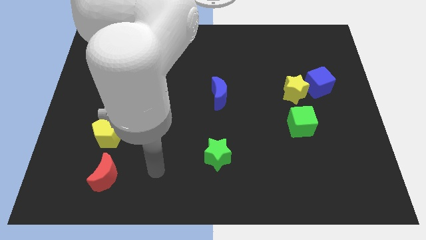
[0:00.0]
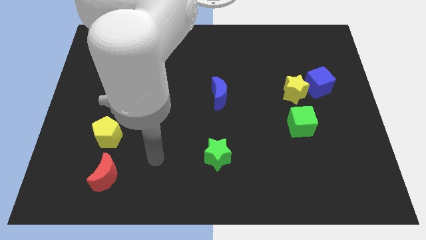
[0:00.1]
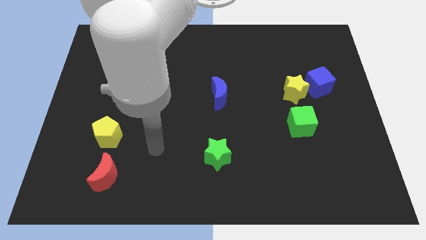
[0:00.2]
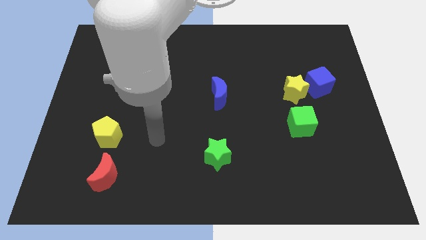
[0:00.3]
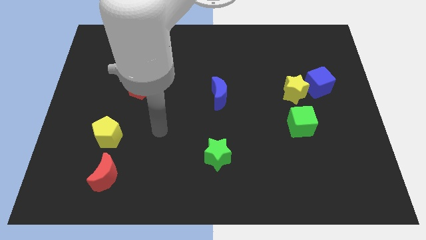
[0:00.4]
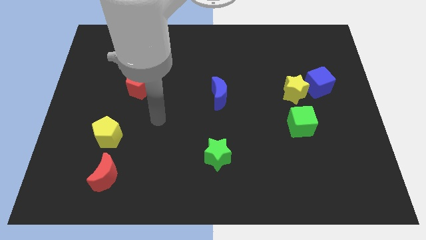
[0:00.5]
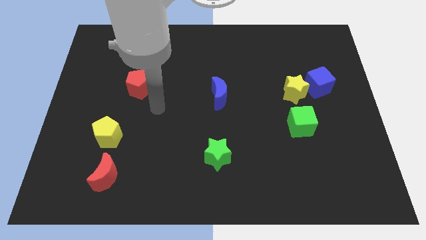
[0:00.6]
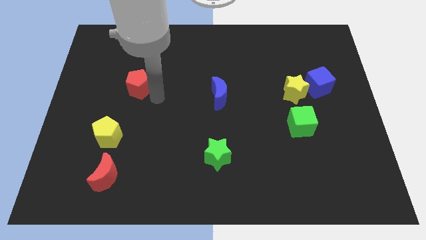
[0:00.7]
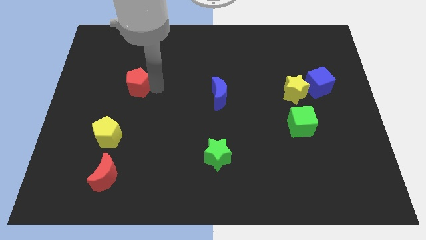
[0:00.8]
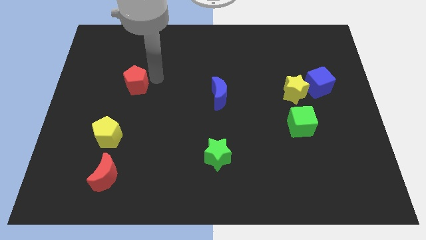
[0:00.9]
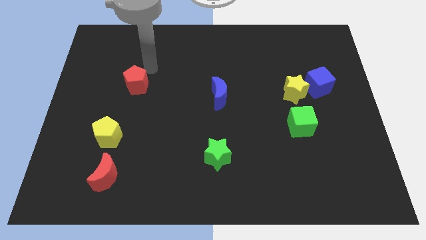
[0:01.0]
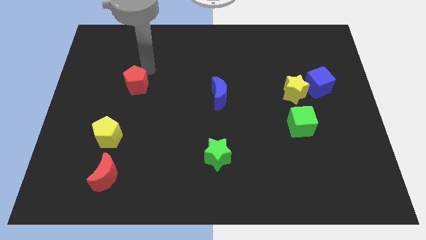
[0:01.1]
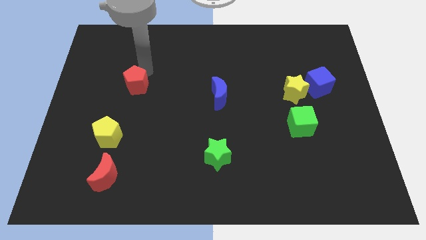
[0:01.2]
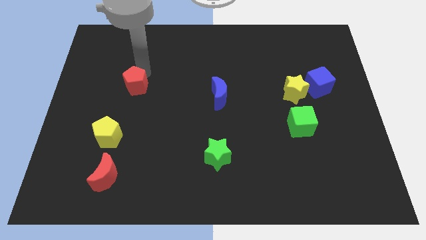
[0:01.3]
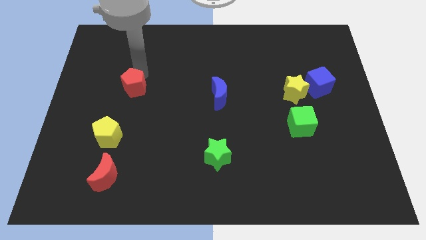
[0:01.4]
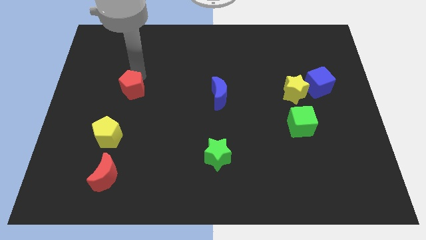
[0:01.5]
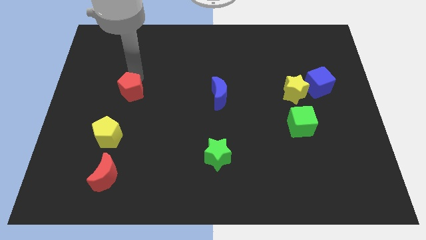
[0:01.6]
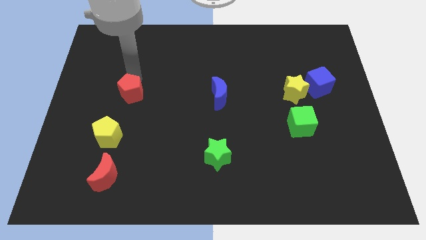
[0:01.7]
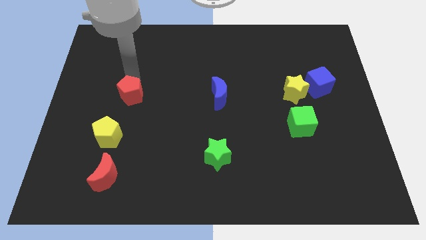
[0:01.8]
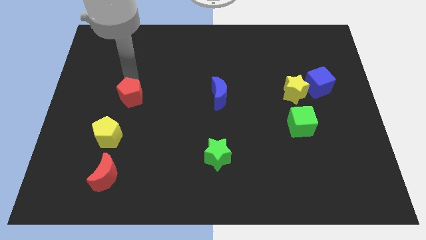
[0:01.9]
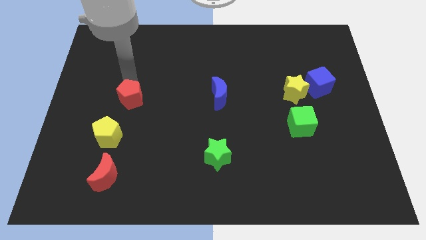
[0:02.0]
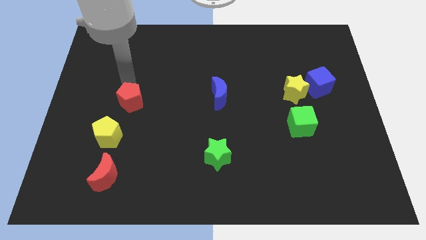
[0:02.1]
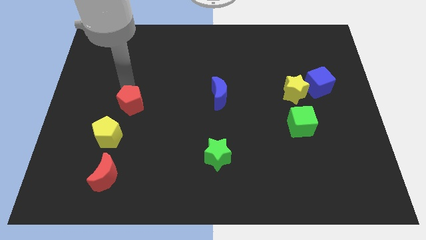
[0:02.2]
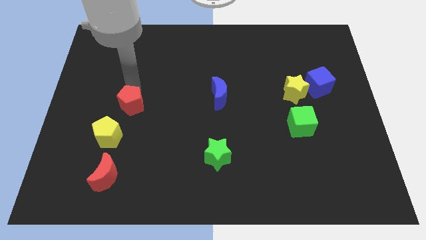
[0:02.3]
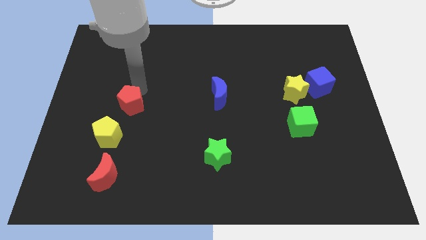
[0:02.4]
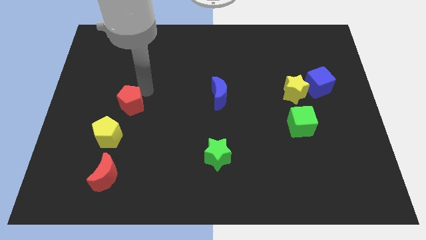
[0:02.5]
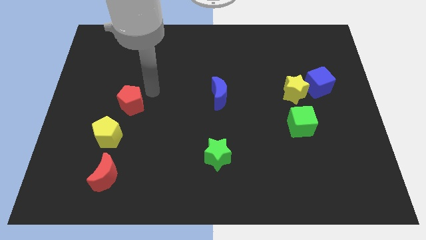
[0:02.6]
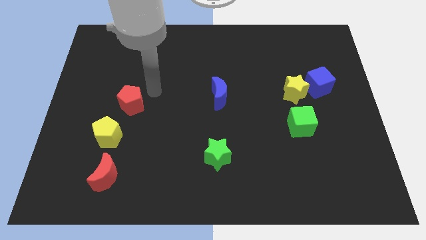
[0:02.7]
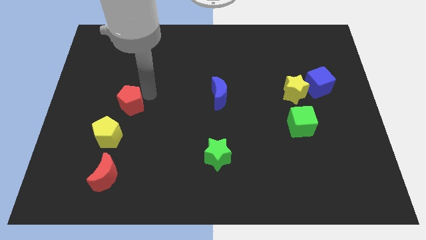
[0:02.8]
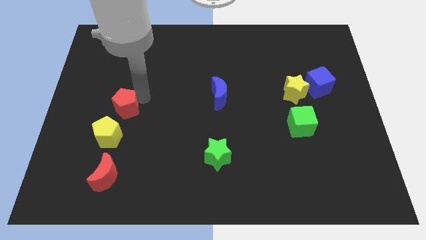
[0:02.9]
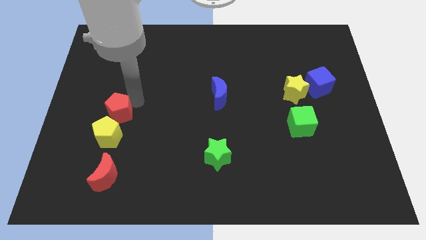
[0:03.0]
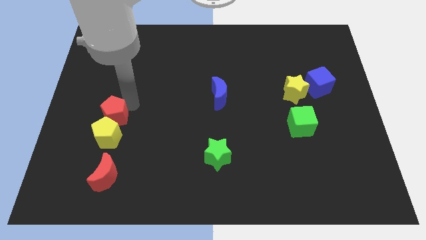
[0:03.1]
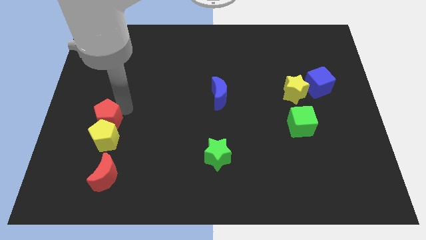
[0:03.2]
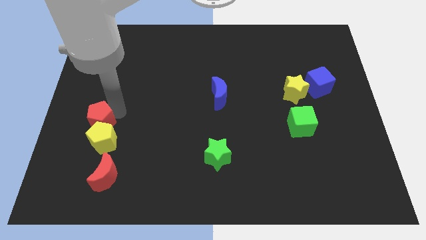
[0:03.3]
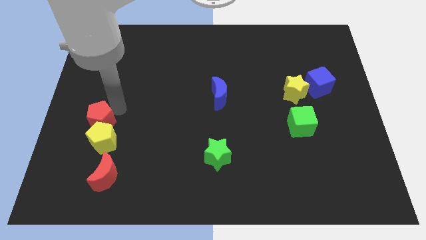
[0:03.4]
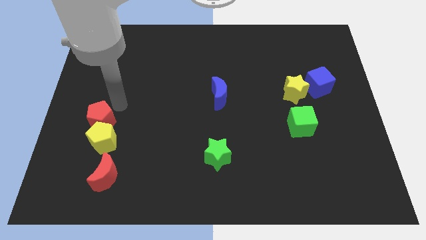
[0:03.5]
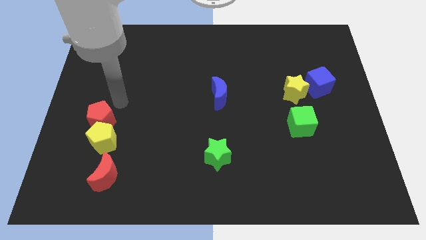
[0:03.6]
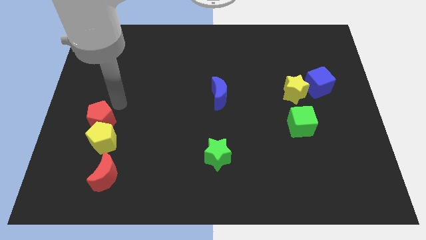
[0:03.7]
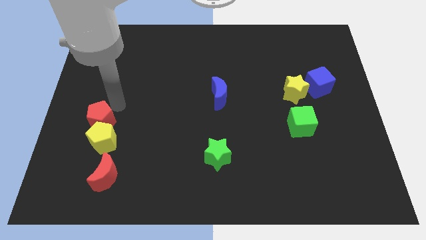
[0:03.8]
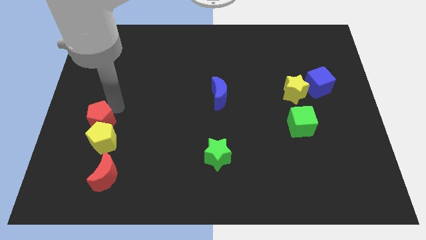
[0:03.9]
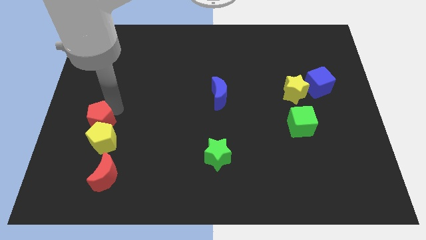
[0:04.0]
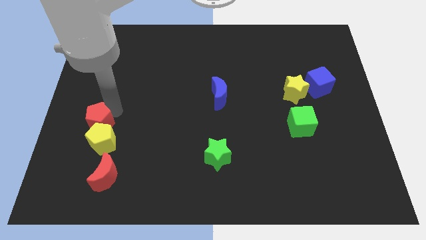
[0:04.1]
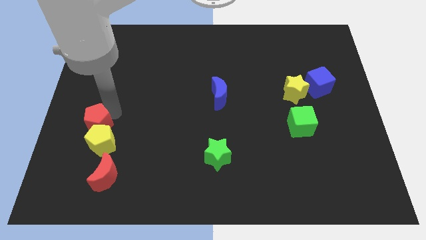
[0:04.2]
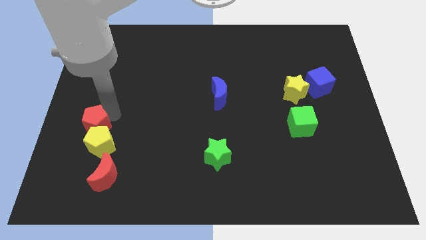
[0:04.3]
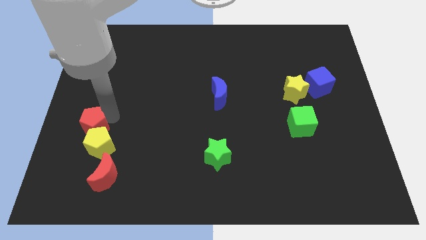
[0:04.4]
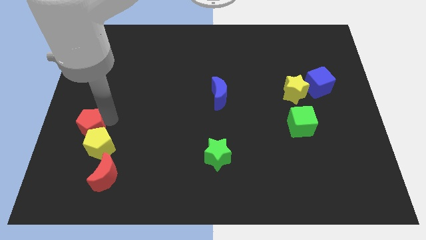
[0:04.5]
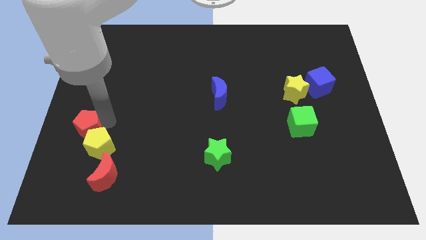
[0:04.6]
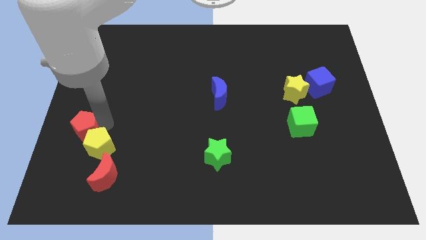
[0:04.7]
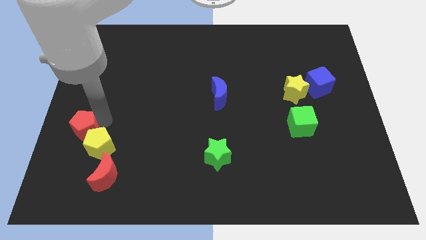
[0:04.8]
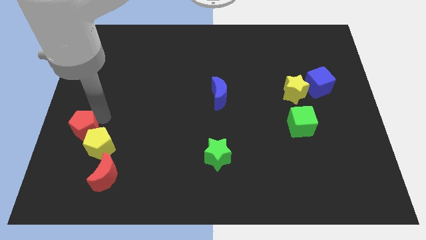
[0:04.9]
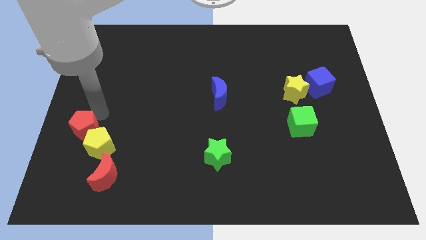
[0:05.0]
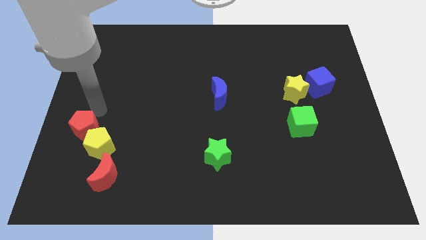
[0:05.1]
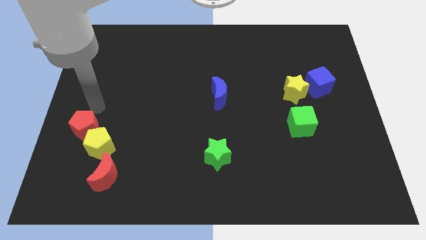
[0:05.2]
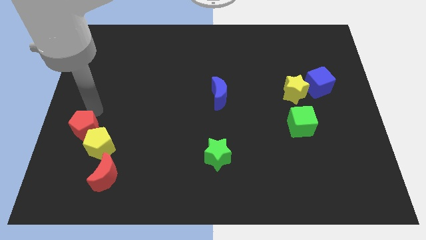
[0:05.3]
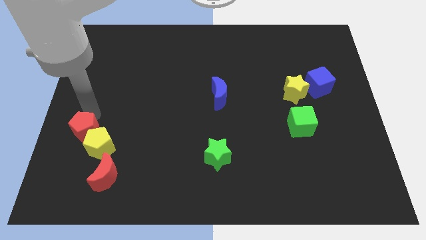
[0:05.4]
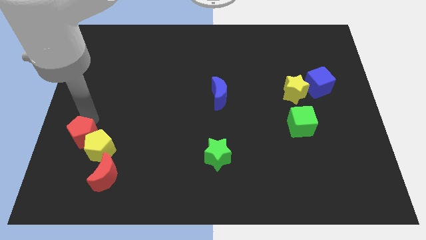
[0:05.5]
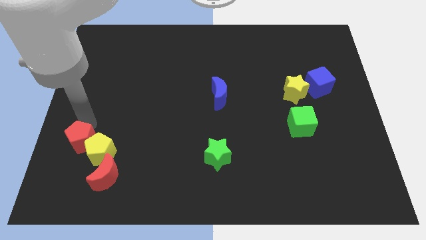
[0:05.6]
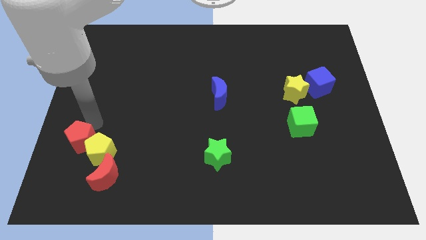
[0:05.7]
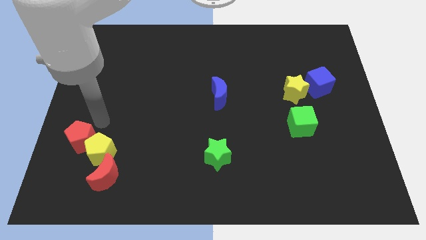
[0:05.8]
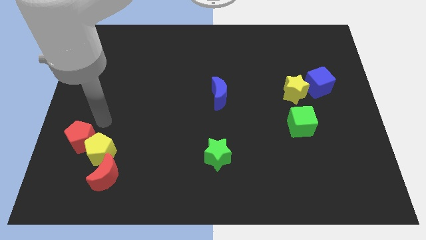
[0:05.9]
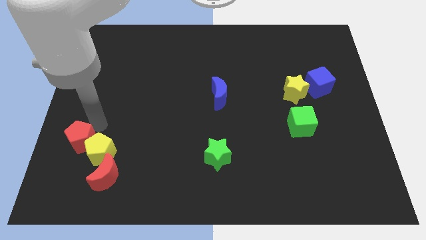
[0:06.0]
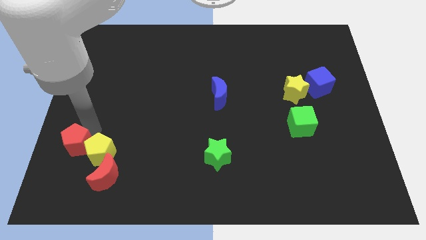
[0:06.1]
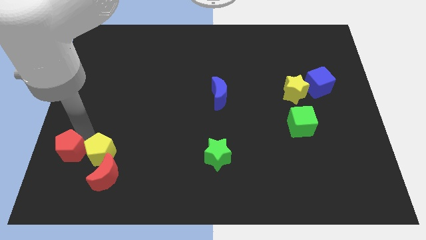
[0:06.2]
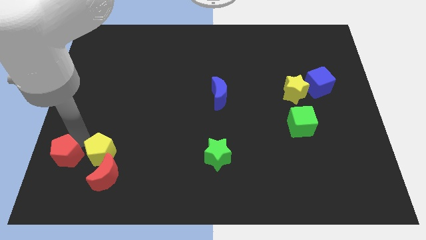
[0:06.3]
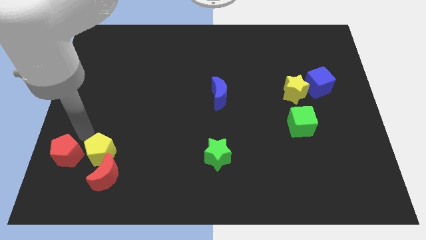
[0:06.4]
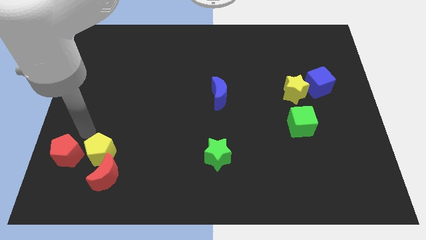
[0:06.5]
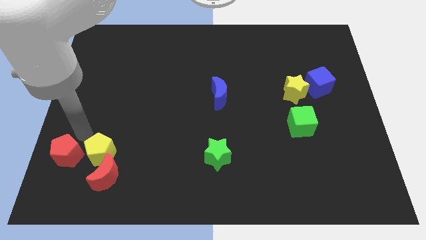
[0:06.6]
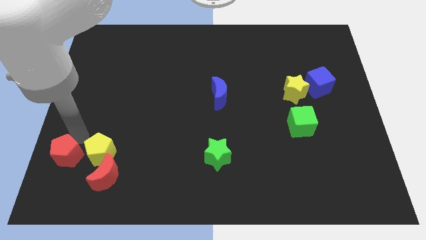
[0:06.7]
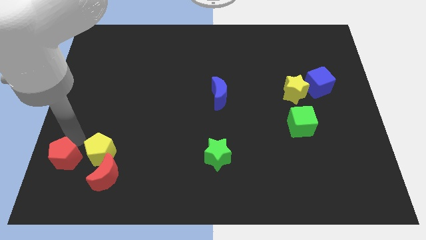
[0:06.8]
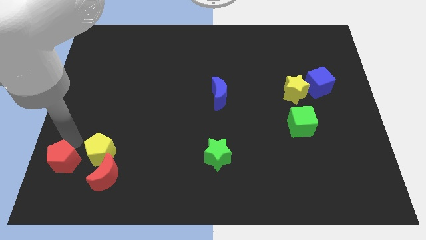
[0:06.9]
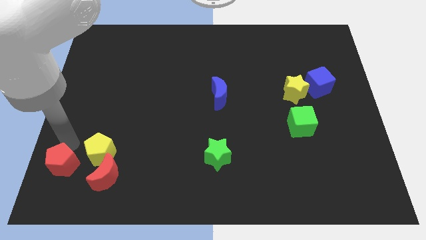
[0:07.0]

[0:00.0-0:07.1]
slide the red pentagon to the lower left corner

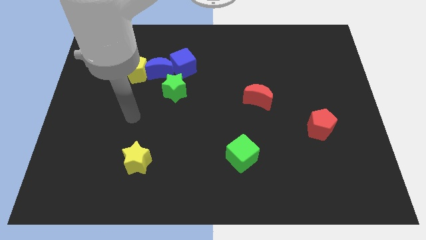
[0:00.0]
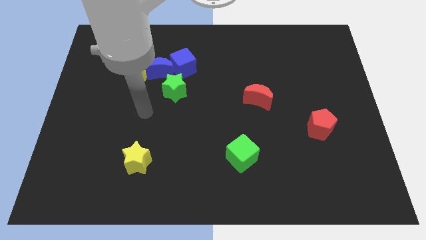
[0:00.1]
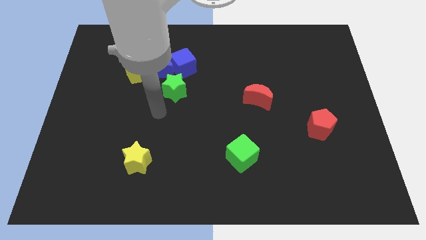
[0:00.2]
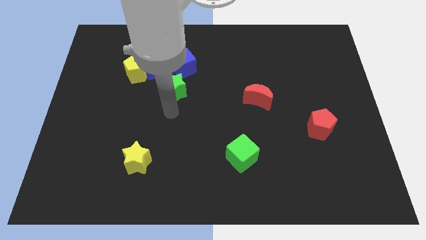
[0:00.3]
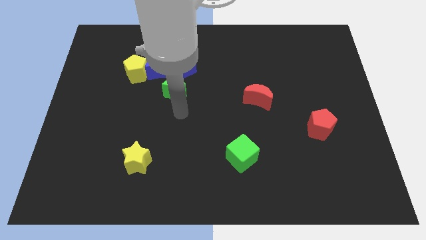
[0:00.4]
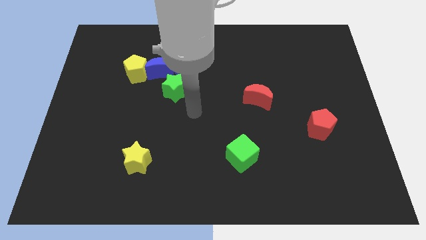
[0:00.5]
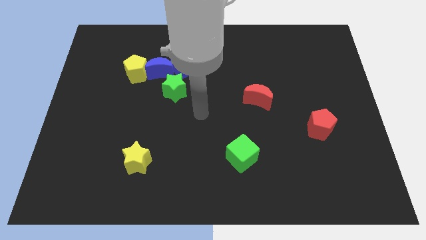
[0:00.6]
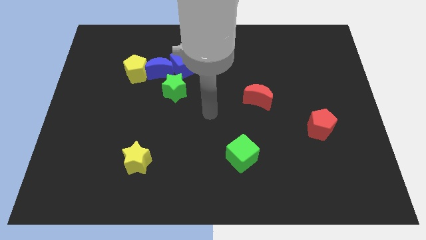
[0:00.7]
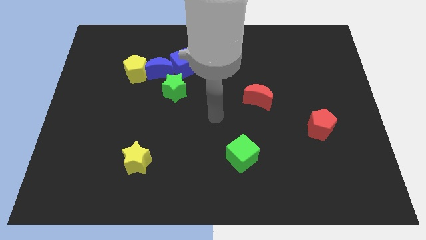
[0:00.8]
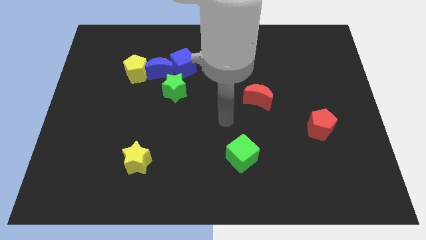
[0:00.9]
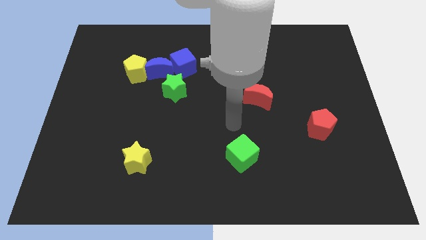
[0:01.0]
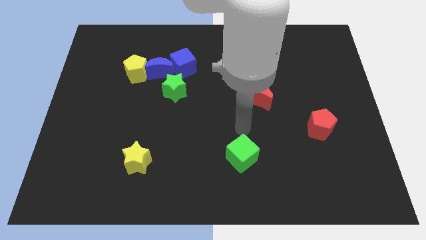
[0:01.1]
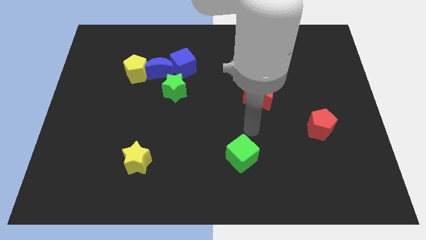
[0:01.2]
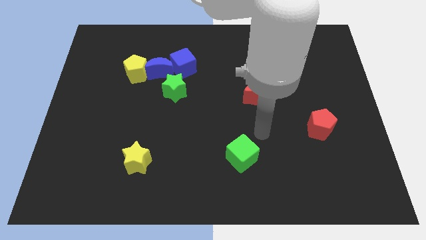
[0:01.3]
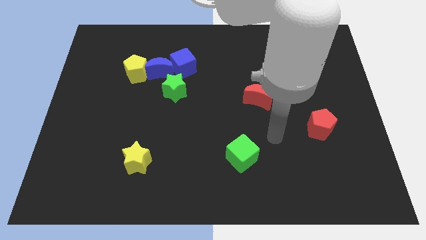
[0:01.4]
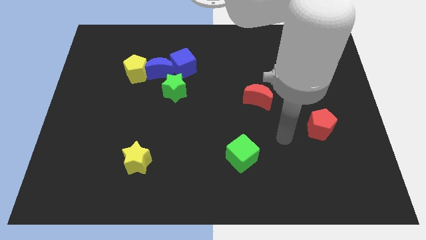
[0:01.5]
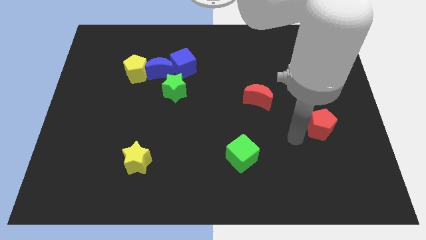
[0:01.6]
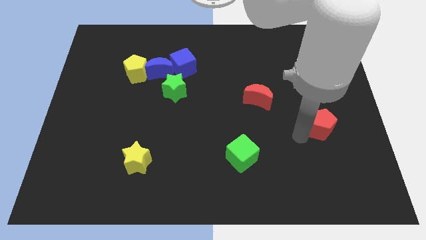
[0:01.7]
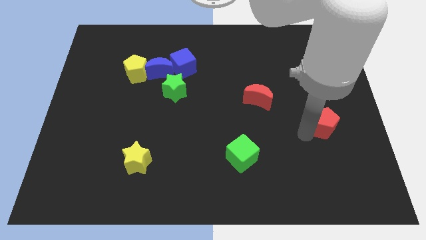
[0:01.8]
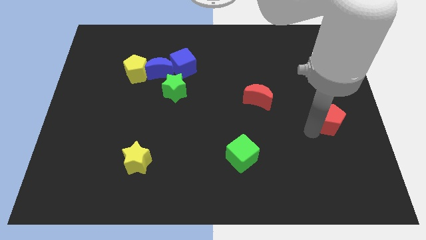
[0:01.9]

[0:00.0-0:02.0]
move the red pentagon to the right side
